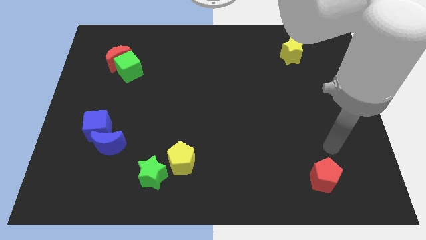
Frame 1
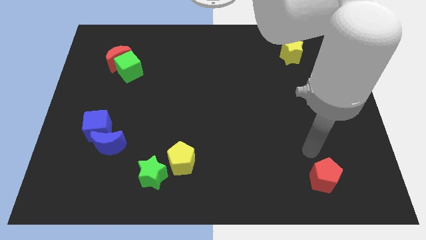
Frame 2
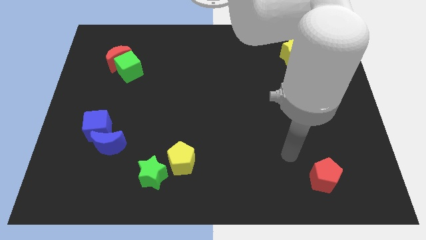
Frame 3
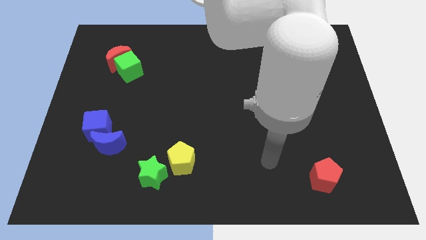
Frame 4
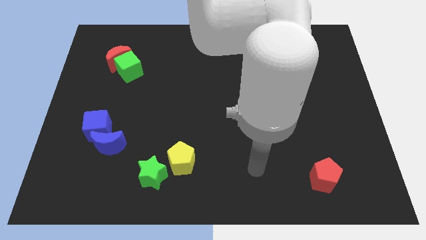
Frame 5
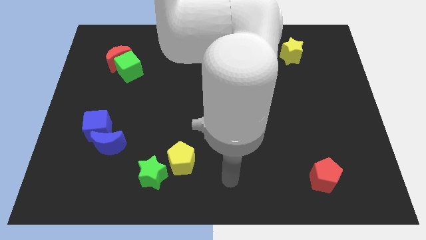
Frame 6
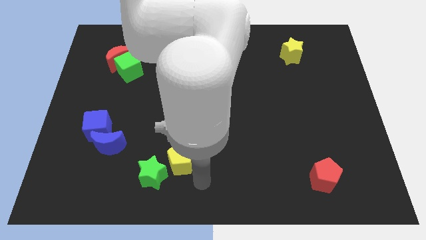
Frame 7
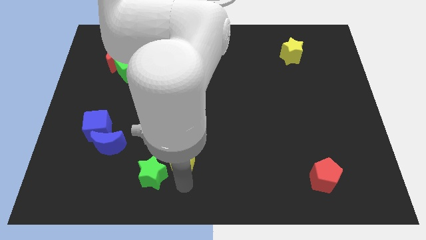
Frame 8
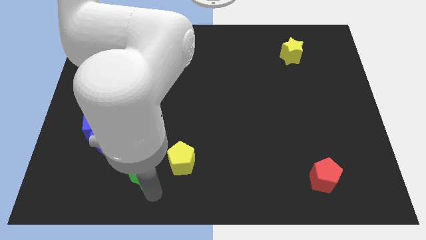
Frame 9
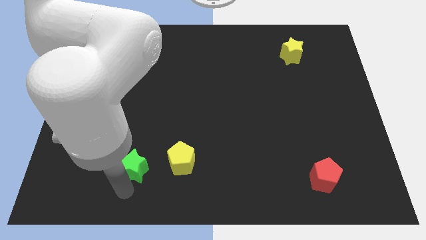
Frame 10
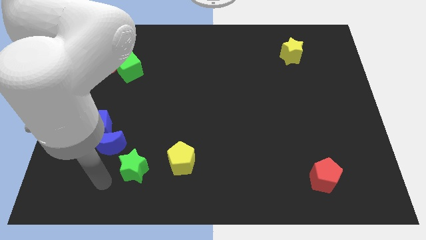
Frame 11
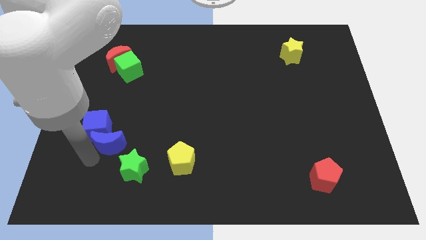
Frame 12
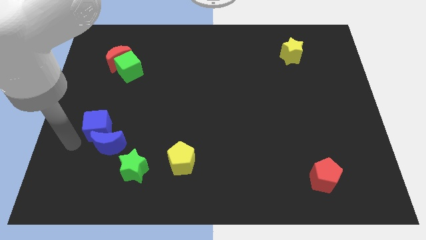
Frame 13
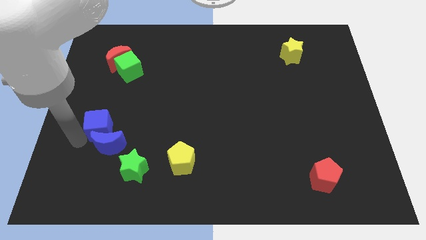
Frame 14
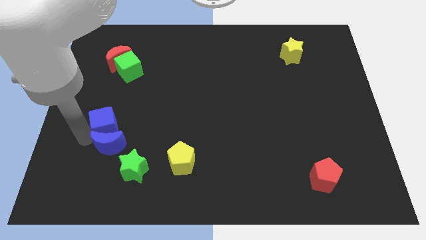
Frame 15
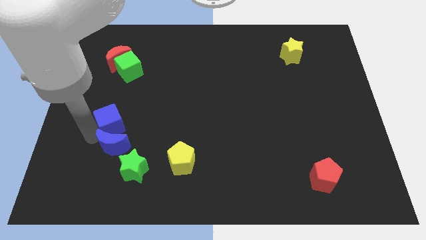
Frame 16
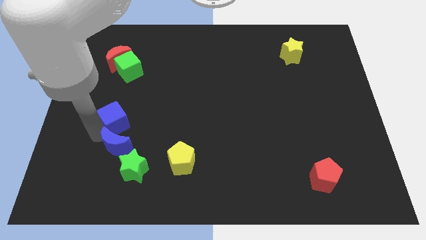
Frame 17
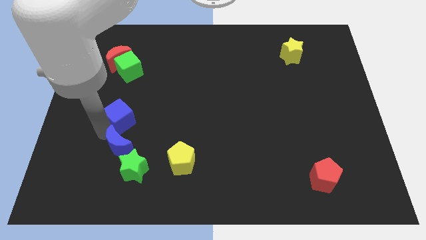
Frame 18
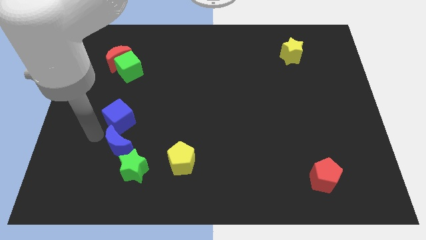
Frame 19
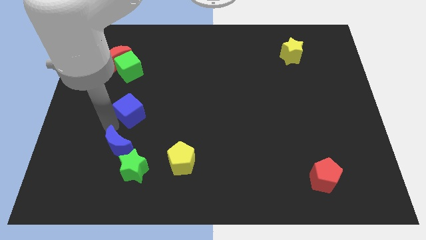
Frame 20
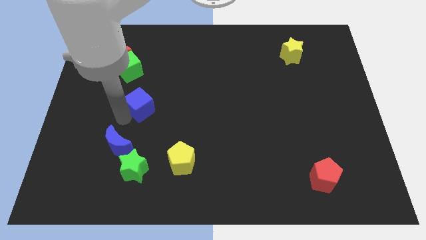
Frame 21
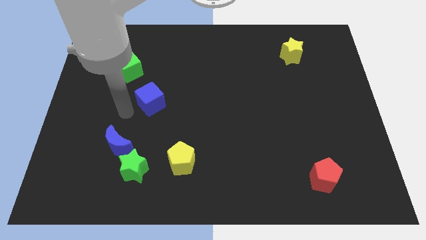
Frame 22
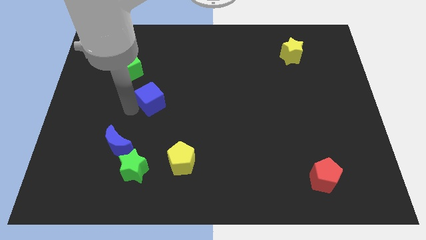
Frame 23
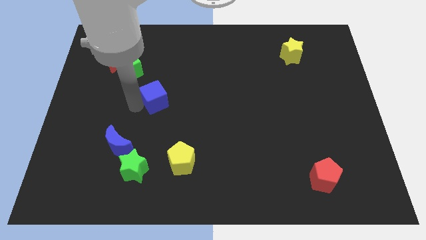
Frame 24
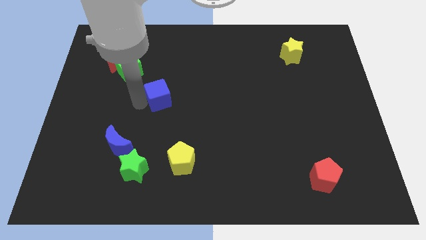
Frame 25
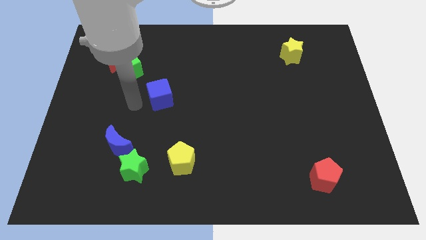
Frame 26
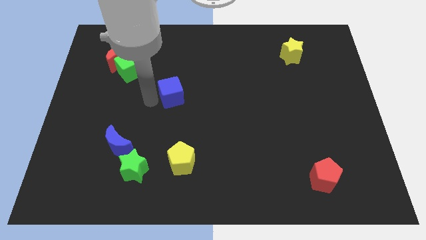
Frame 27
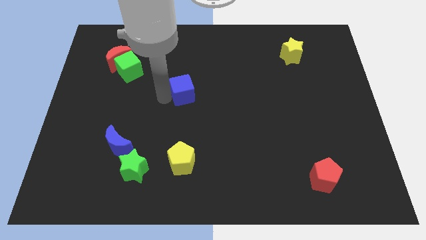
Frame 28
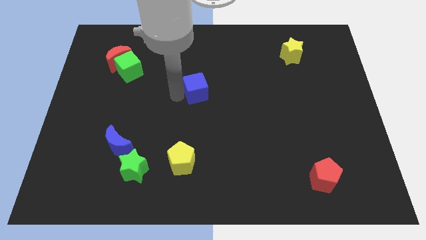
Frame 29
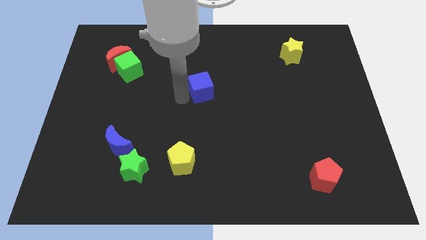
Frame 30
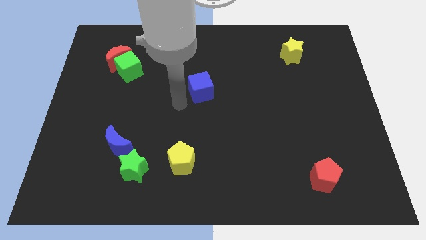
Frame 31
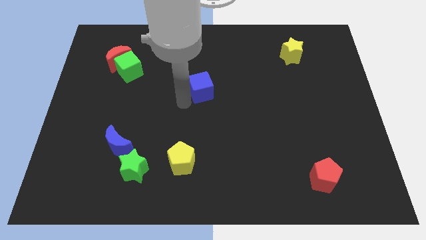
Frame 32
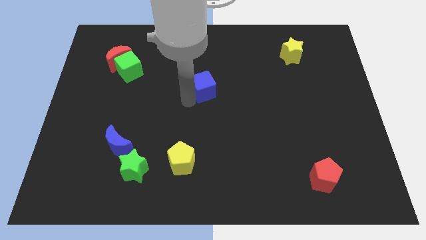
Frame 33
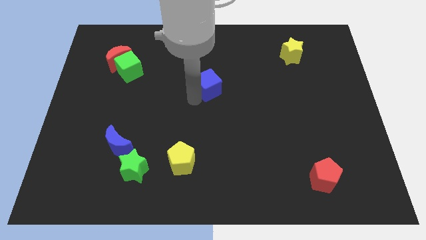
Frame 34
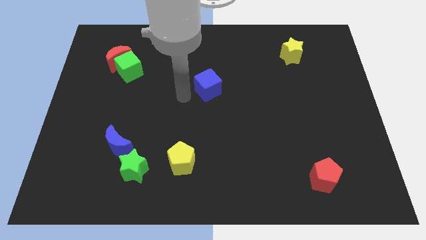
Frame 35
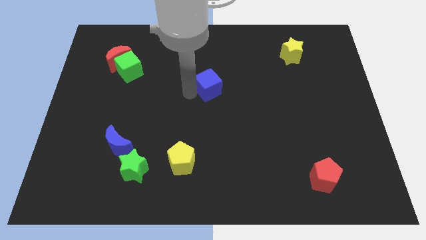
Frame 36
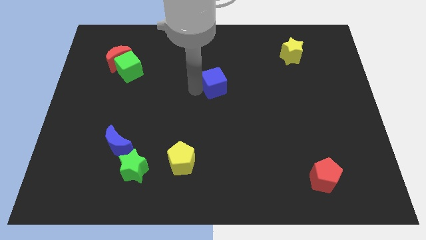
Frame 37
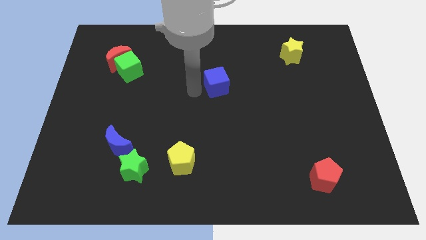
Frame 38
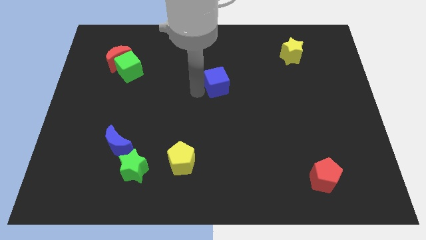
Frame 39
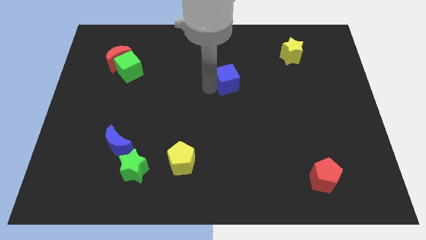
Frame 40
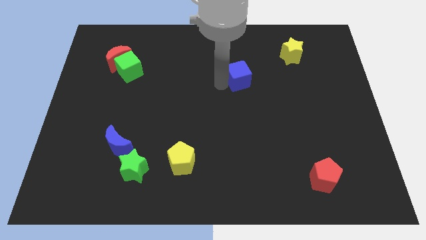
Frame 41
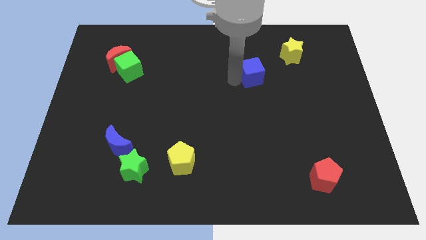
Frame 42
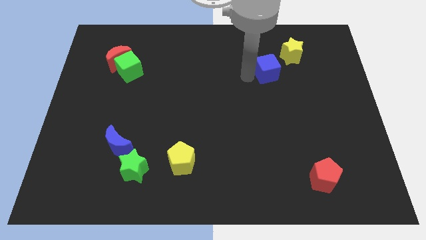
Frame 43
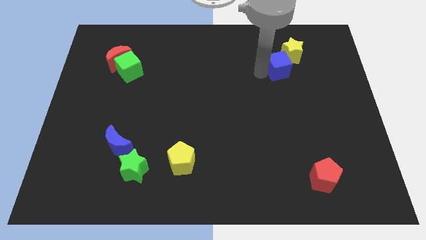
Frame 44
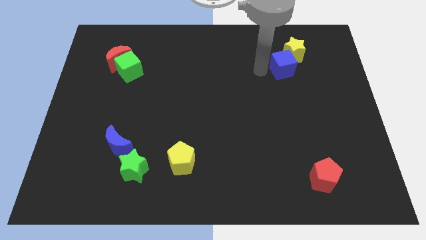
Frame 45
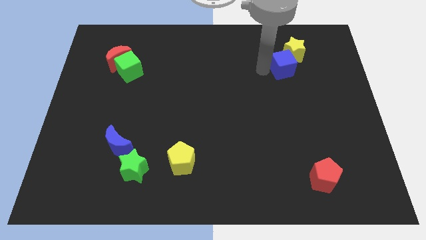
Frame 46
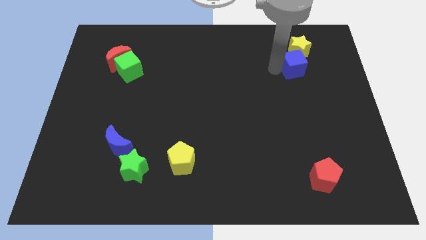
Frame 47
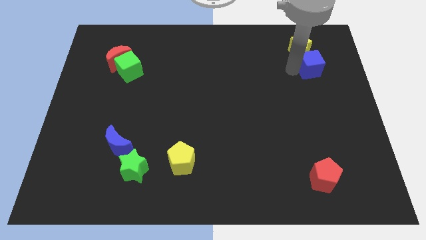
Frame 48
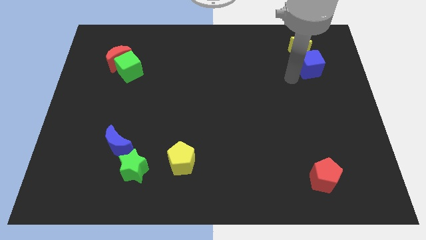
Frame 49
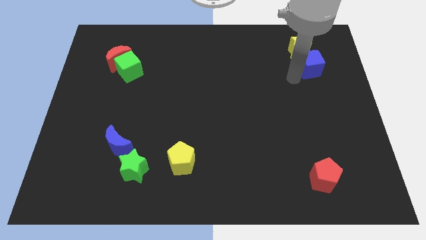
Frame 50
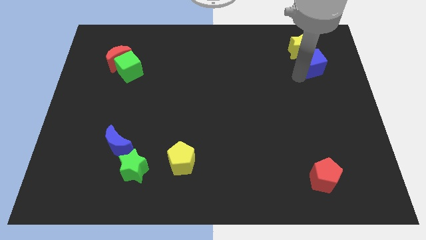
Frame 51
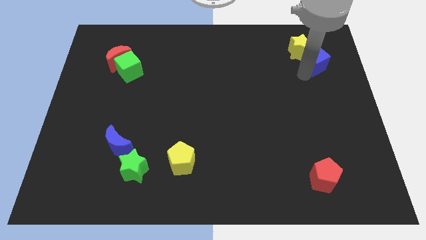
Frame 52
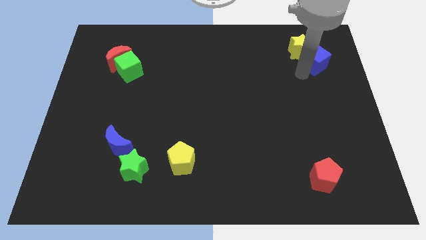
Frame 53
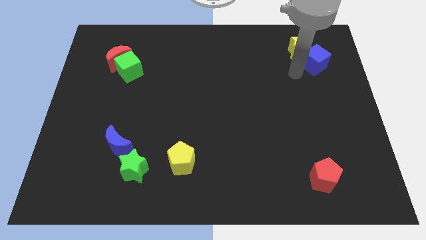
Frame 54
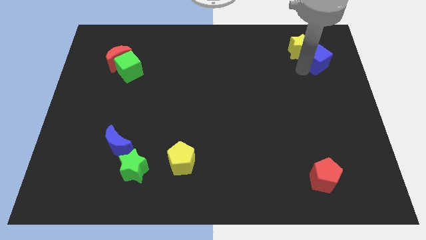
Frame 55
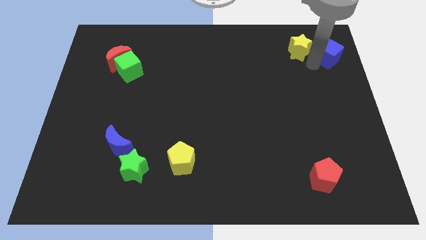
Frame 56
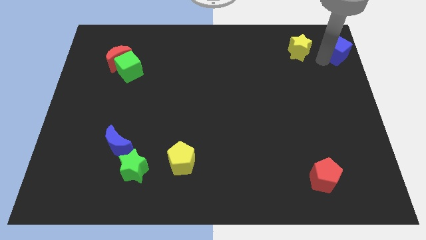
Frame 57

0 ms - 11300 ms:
put the blue cube to the top right of the board

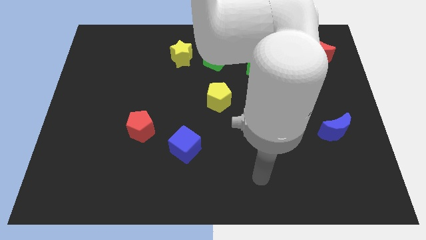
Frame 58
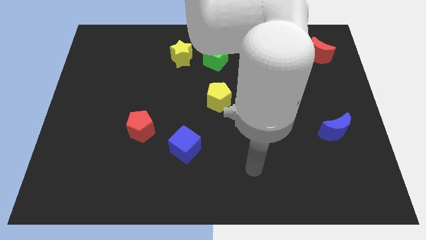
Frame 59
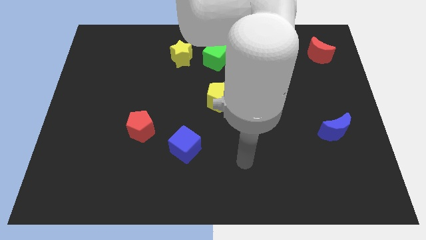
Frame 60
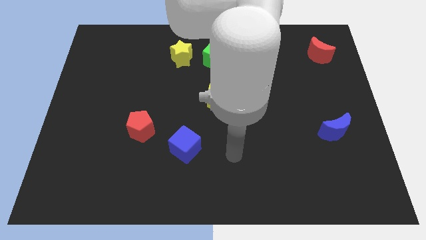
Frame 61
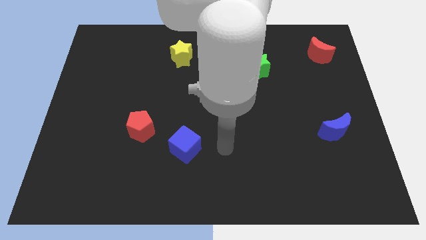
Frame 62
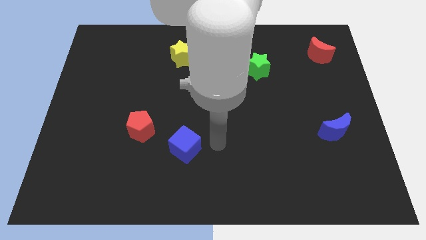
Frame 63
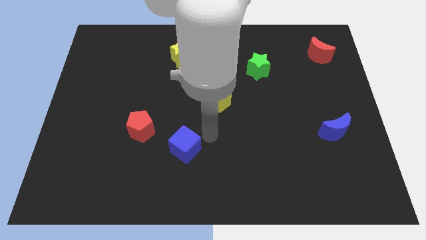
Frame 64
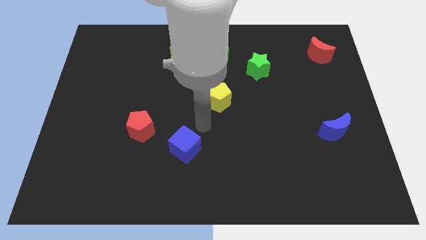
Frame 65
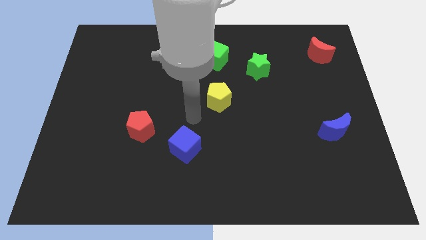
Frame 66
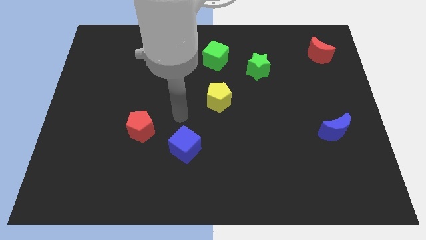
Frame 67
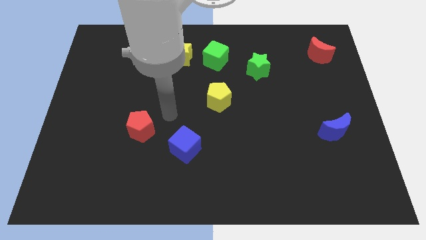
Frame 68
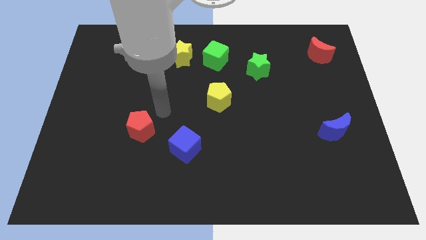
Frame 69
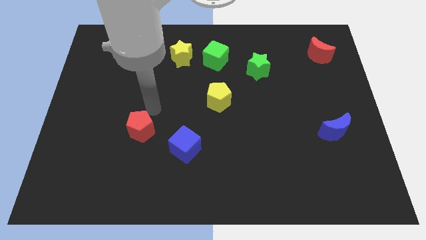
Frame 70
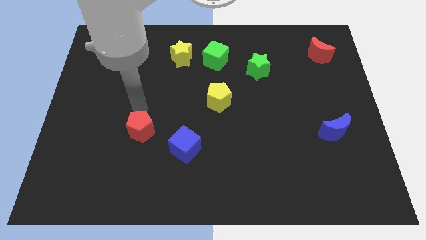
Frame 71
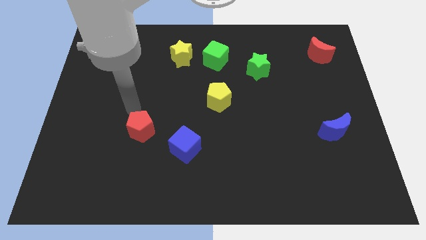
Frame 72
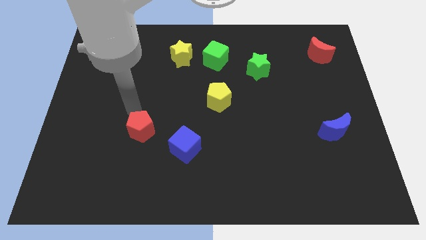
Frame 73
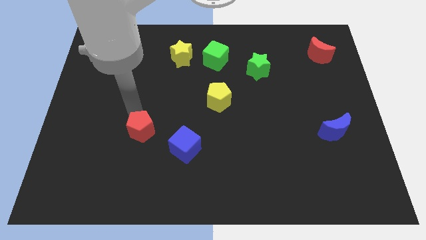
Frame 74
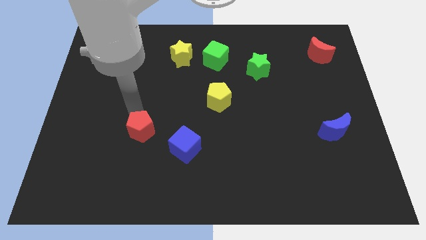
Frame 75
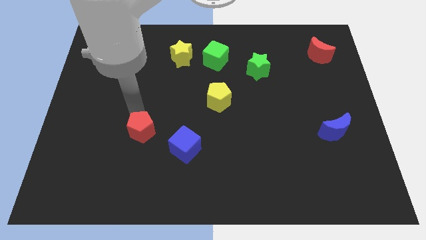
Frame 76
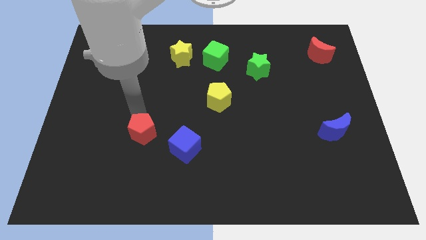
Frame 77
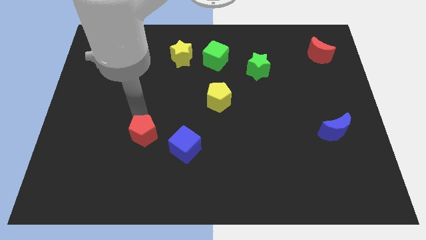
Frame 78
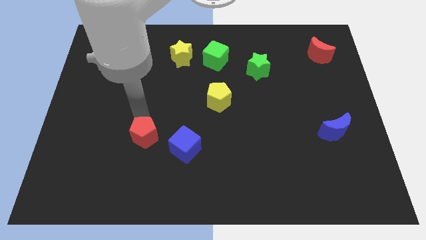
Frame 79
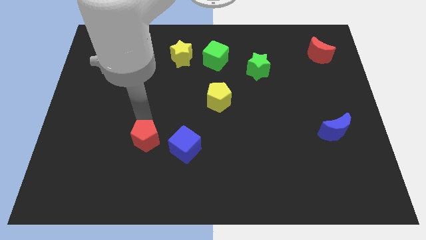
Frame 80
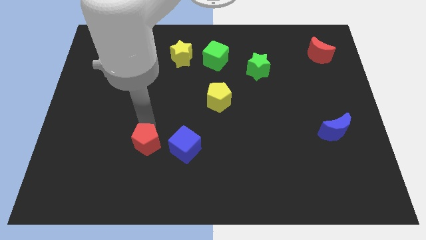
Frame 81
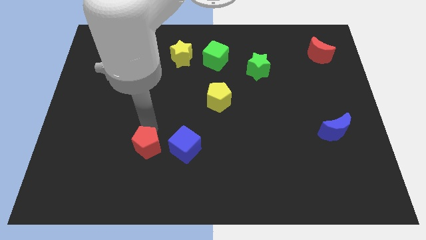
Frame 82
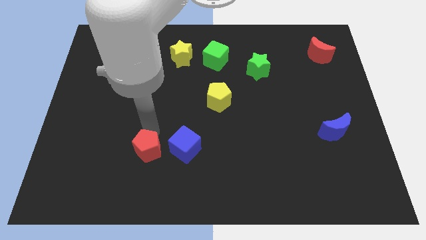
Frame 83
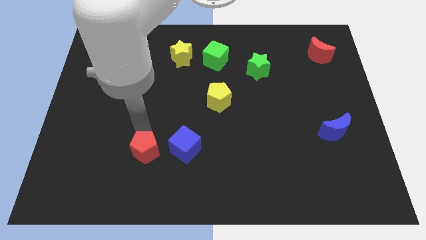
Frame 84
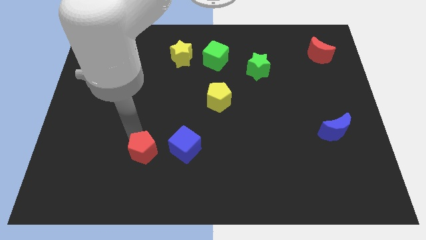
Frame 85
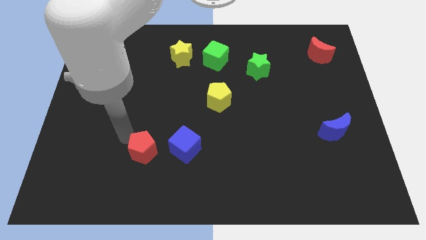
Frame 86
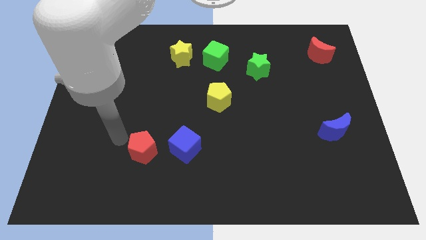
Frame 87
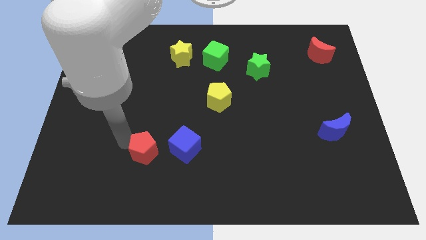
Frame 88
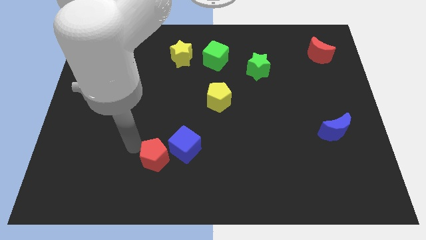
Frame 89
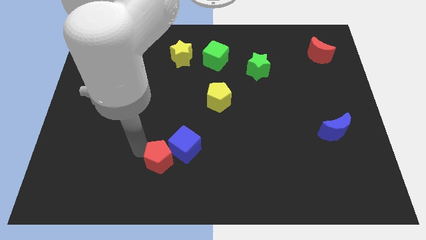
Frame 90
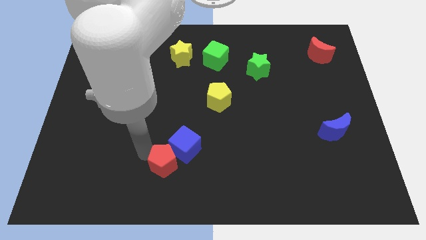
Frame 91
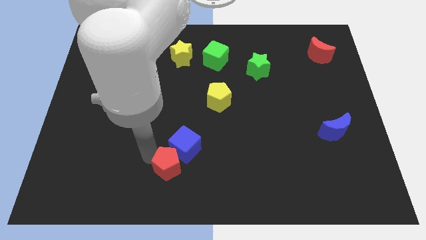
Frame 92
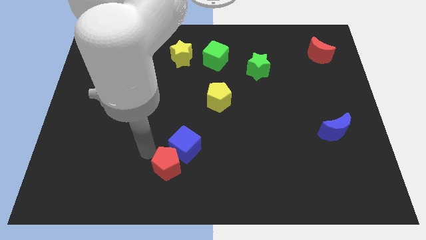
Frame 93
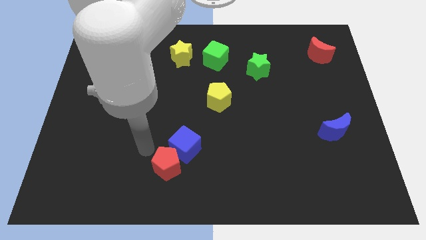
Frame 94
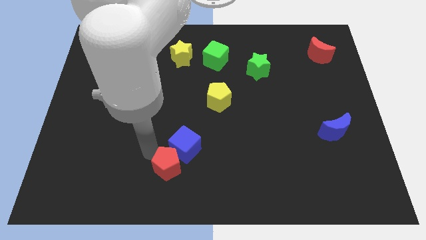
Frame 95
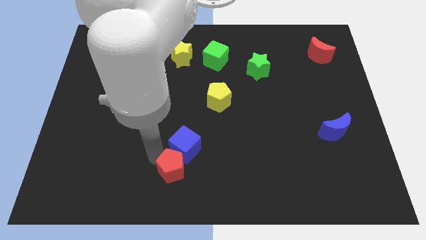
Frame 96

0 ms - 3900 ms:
push the red pentagon to the bottom side
